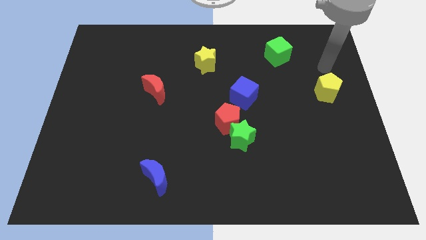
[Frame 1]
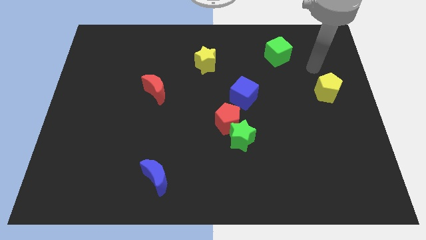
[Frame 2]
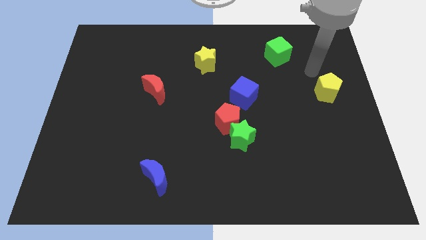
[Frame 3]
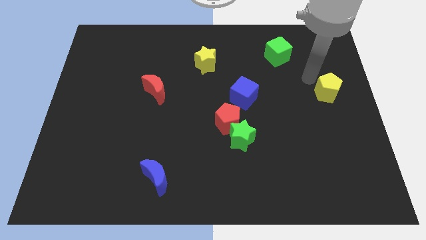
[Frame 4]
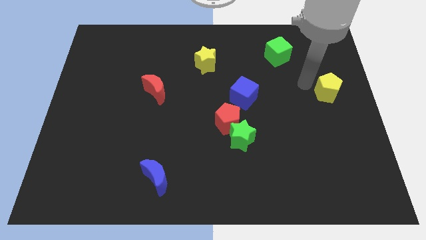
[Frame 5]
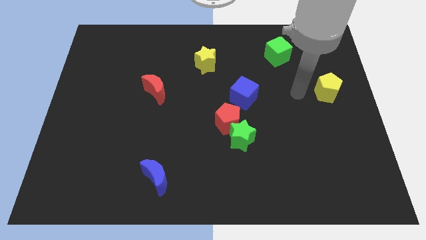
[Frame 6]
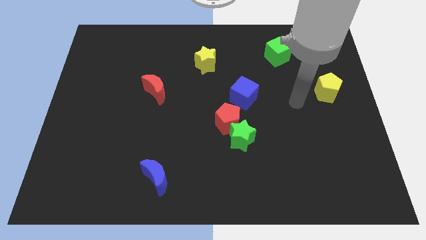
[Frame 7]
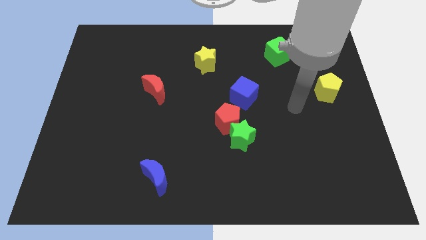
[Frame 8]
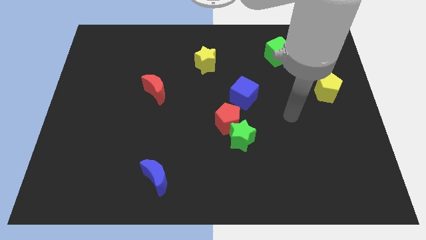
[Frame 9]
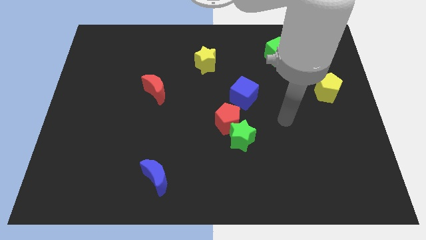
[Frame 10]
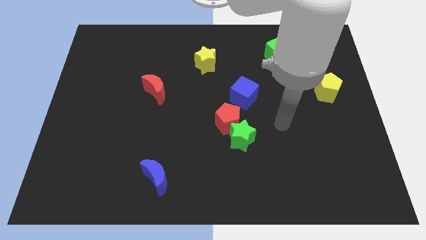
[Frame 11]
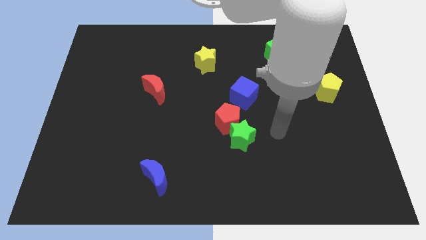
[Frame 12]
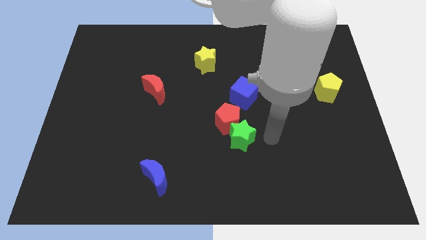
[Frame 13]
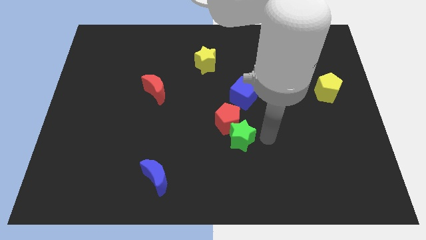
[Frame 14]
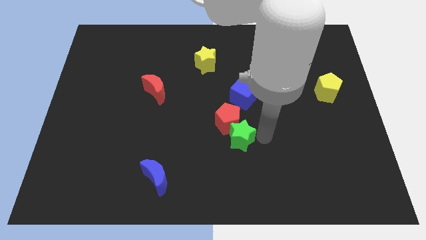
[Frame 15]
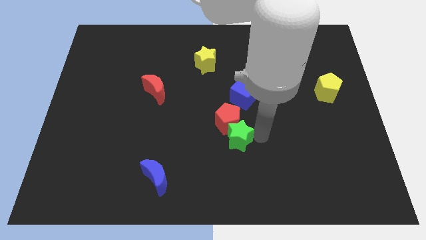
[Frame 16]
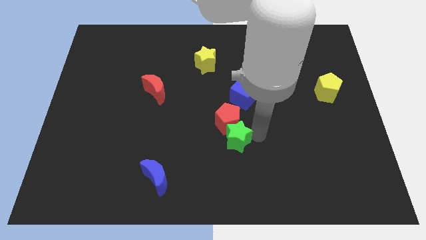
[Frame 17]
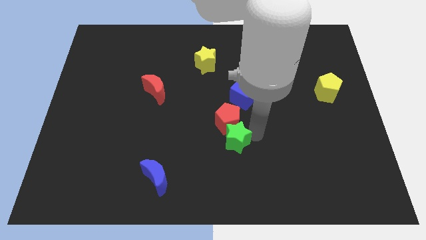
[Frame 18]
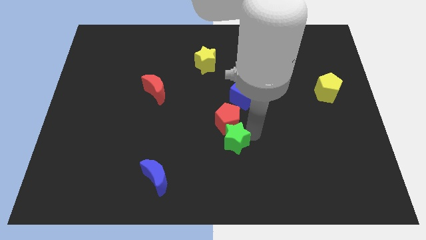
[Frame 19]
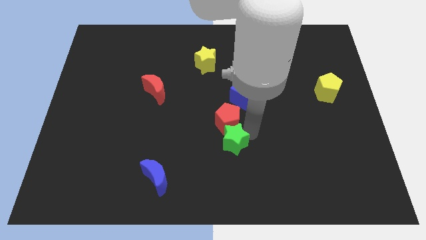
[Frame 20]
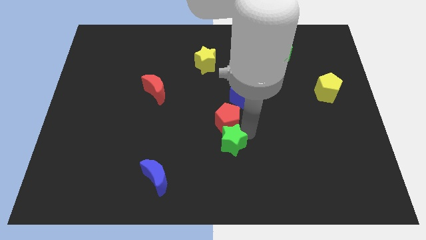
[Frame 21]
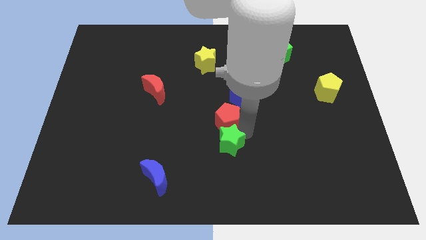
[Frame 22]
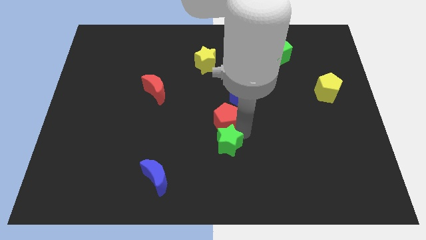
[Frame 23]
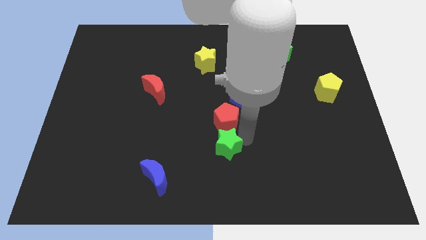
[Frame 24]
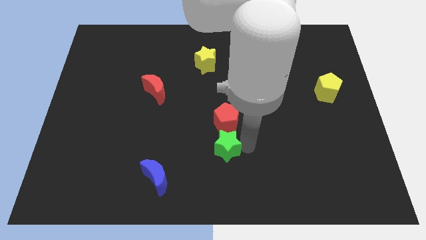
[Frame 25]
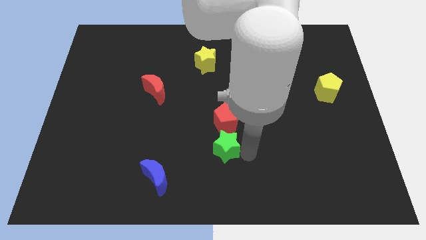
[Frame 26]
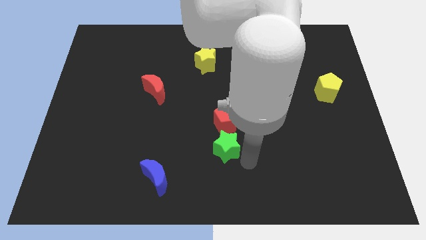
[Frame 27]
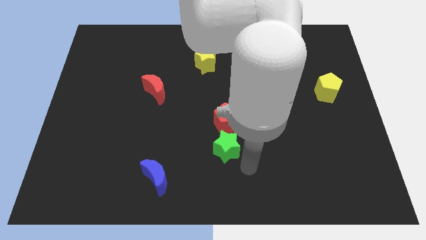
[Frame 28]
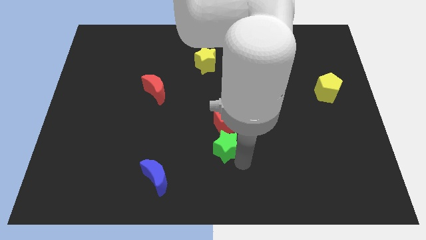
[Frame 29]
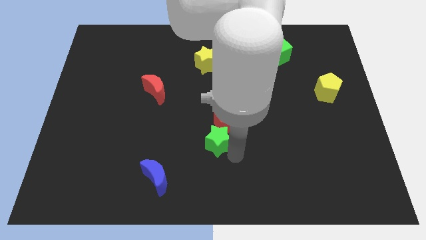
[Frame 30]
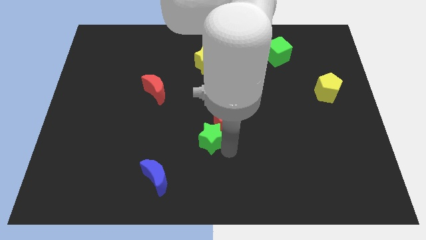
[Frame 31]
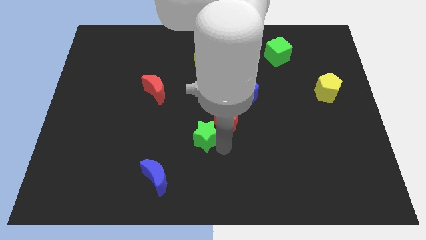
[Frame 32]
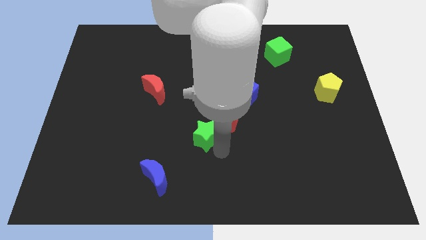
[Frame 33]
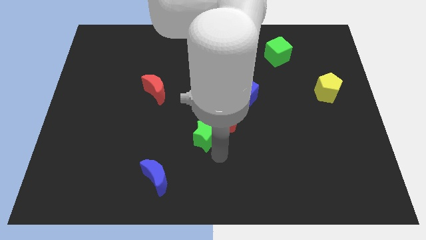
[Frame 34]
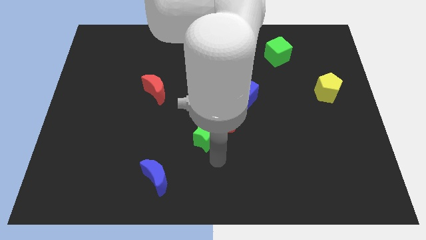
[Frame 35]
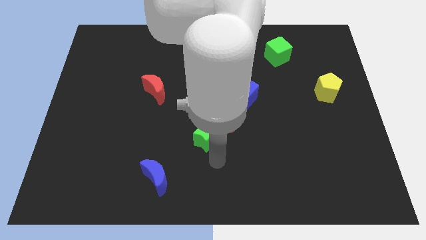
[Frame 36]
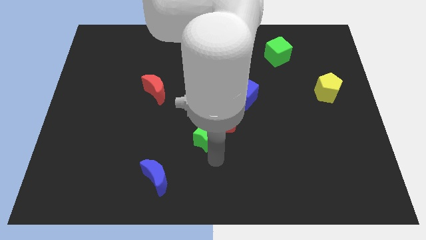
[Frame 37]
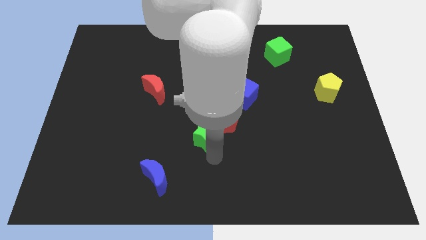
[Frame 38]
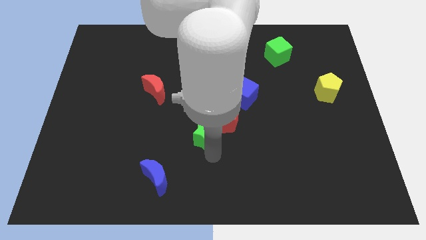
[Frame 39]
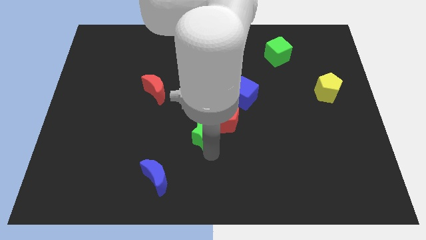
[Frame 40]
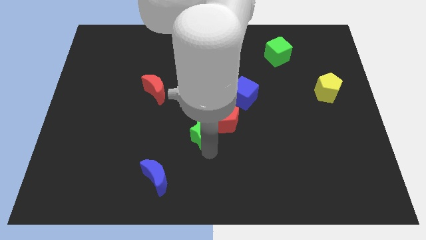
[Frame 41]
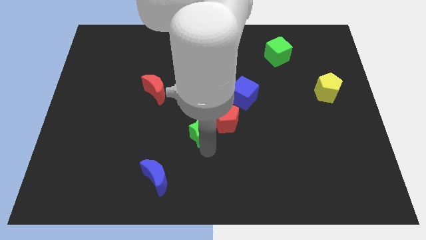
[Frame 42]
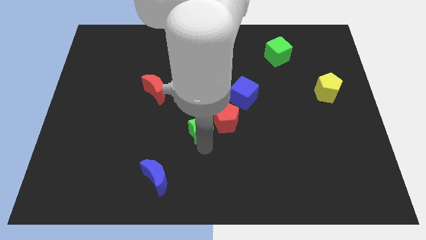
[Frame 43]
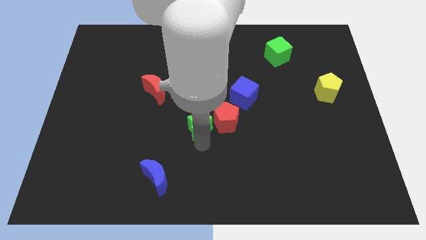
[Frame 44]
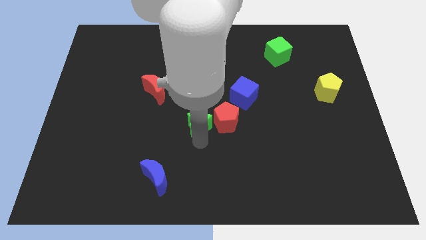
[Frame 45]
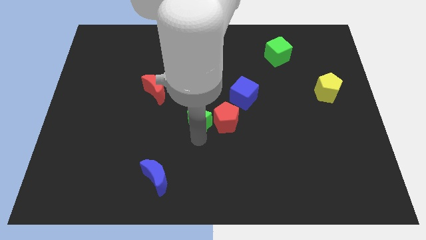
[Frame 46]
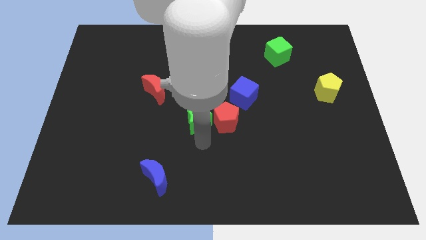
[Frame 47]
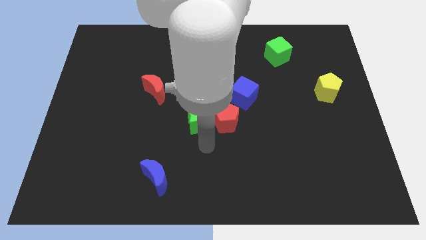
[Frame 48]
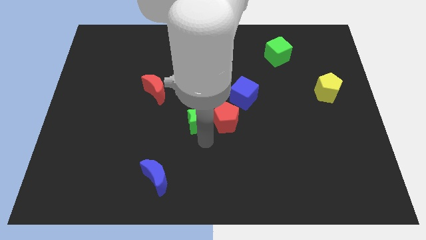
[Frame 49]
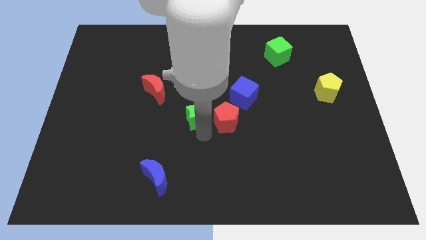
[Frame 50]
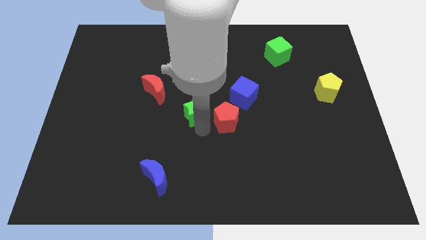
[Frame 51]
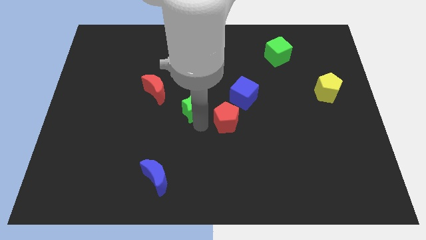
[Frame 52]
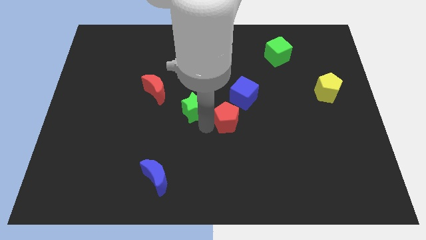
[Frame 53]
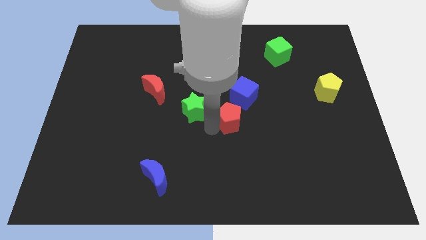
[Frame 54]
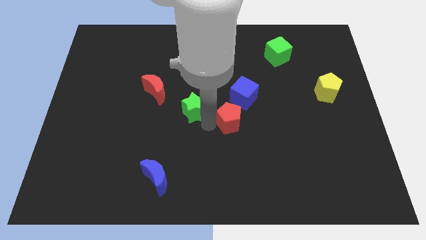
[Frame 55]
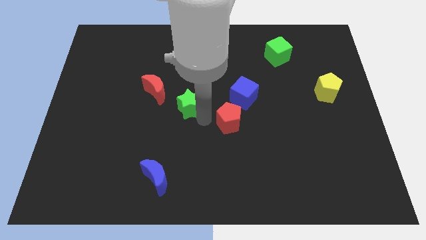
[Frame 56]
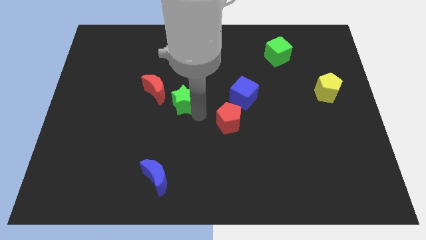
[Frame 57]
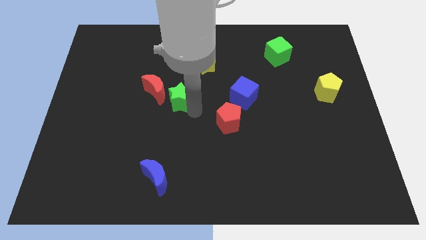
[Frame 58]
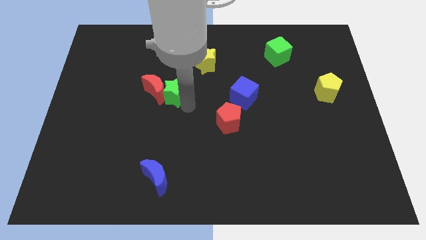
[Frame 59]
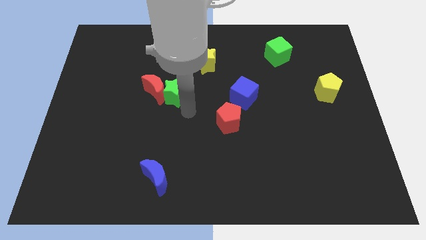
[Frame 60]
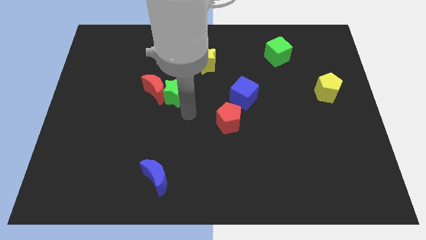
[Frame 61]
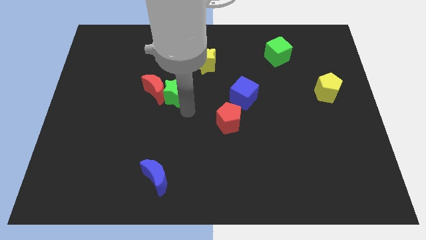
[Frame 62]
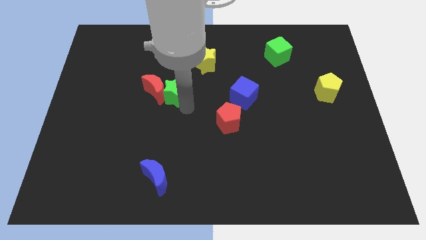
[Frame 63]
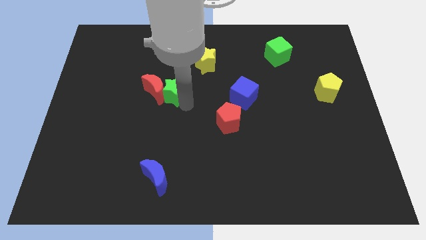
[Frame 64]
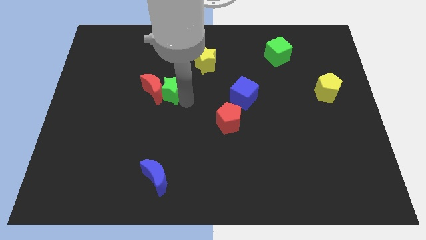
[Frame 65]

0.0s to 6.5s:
push the green star diagonally upwards and to the left

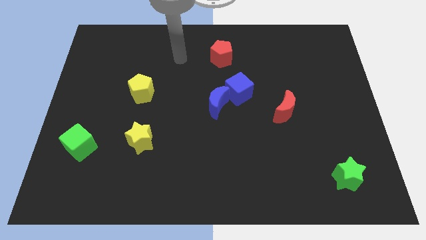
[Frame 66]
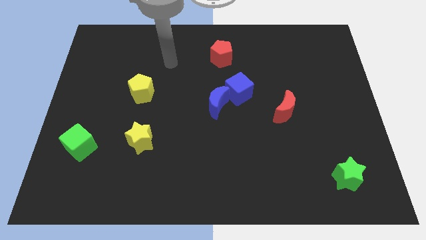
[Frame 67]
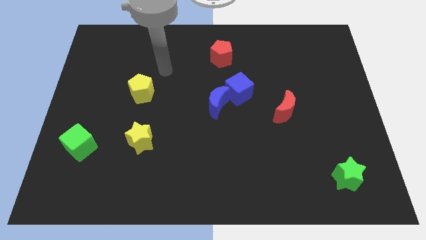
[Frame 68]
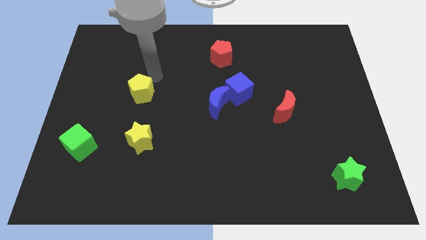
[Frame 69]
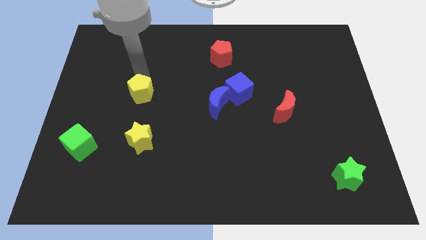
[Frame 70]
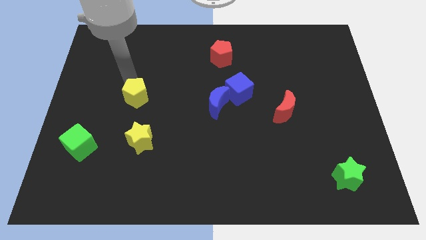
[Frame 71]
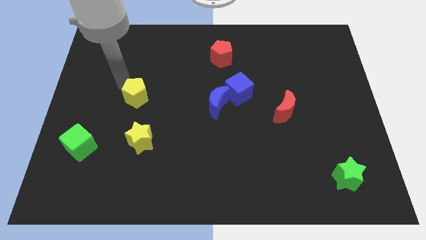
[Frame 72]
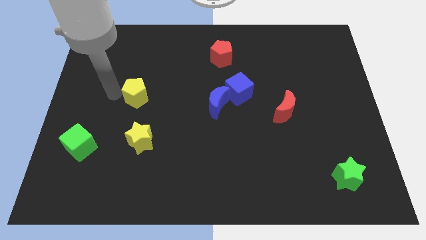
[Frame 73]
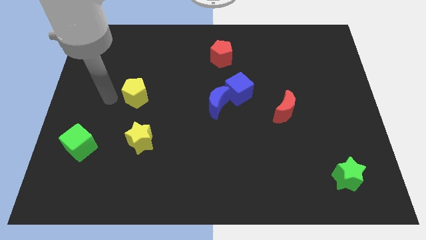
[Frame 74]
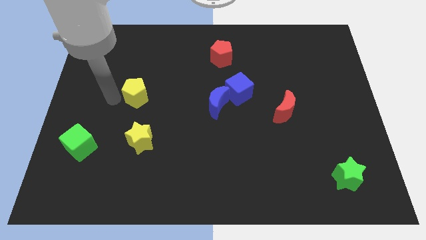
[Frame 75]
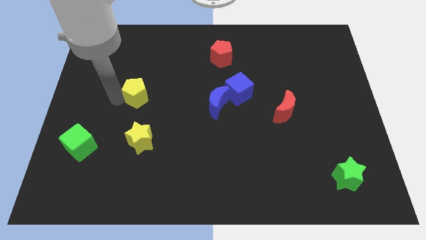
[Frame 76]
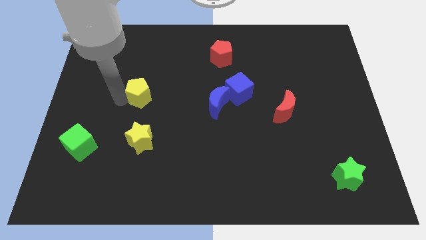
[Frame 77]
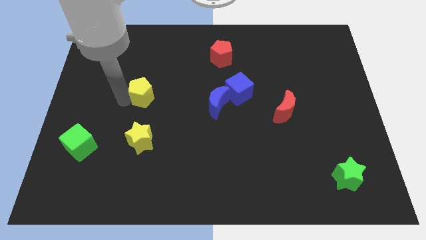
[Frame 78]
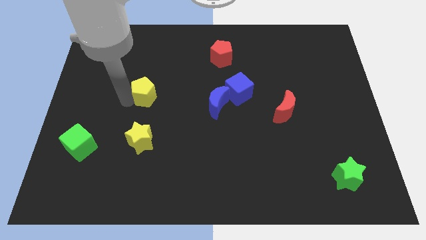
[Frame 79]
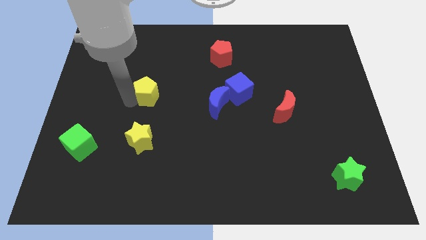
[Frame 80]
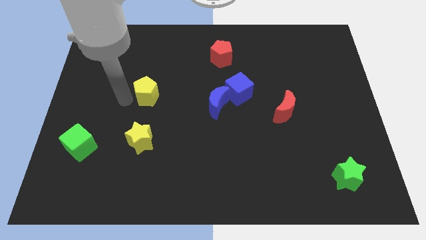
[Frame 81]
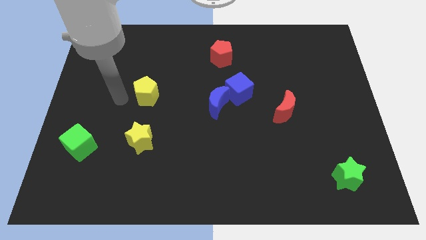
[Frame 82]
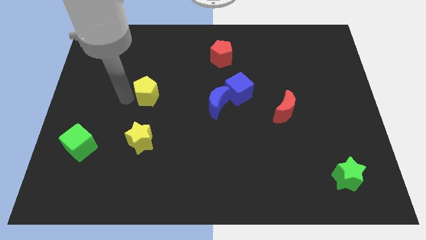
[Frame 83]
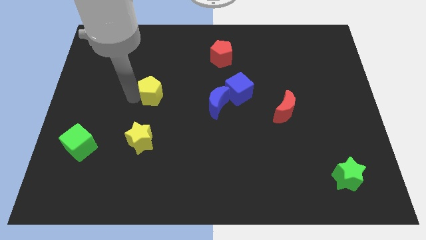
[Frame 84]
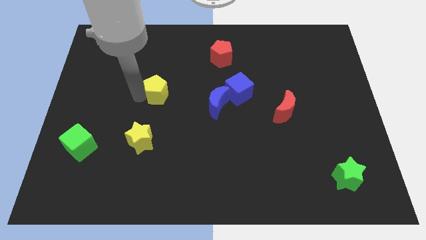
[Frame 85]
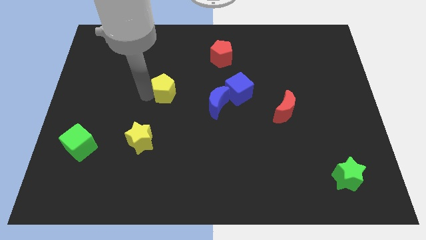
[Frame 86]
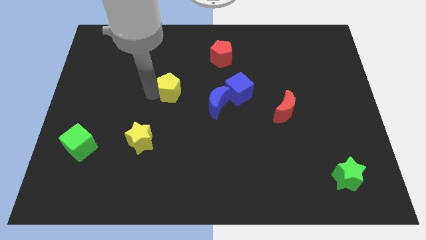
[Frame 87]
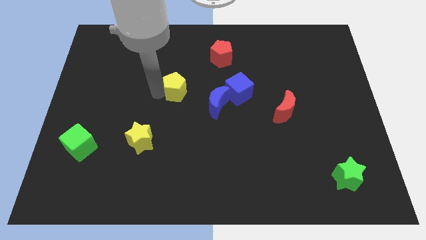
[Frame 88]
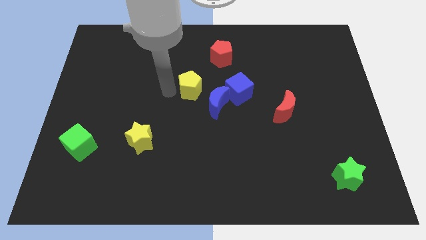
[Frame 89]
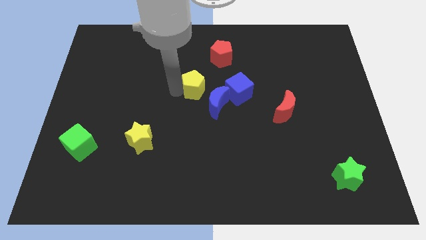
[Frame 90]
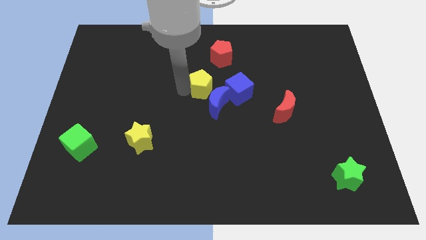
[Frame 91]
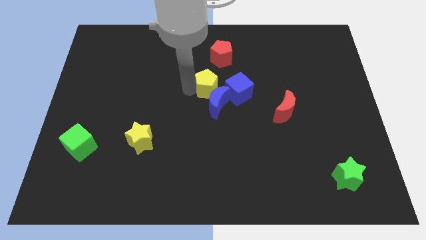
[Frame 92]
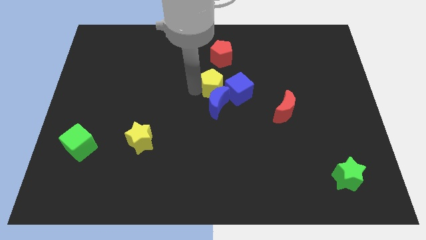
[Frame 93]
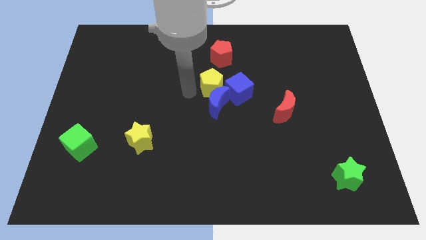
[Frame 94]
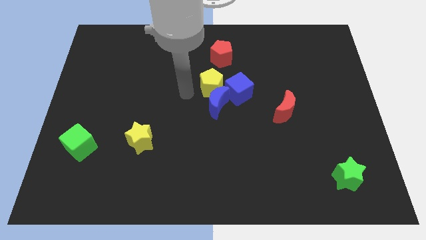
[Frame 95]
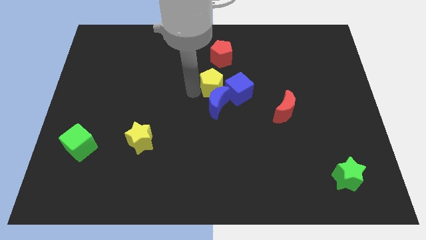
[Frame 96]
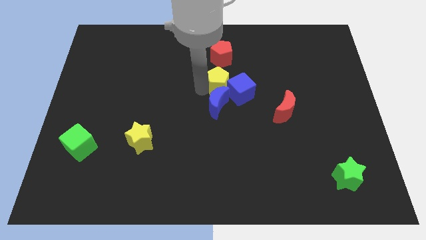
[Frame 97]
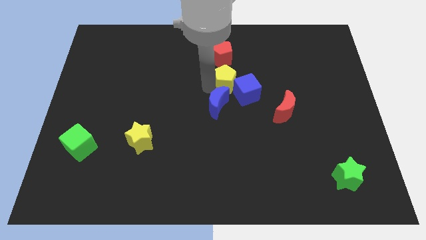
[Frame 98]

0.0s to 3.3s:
slide the yellow pentagon to the right
